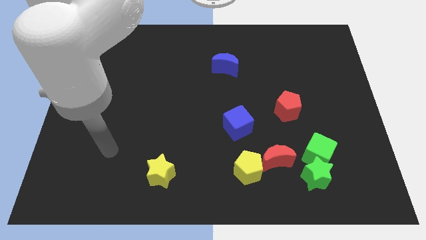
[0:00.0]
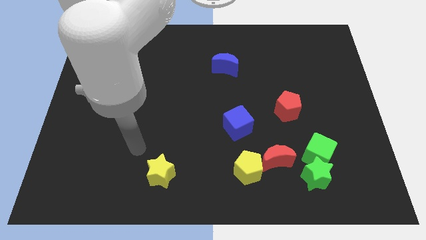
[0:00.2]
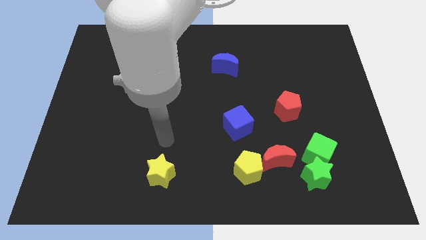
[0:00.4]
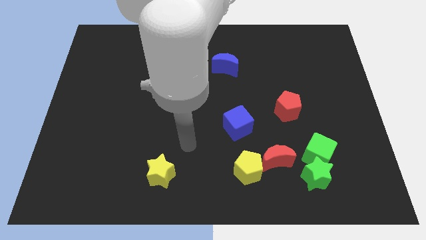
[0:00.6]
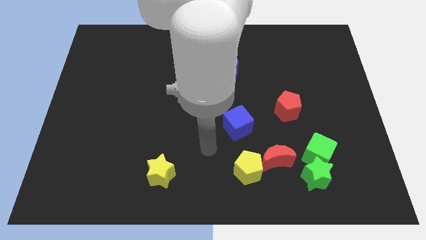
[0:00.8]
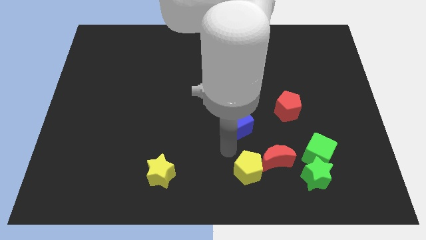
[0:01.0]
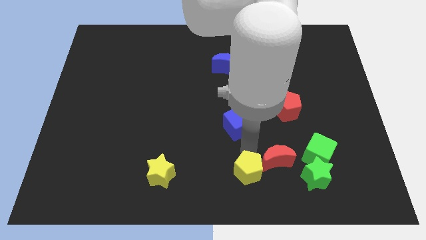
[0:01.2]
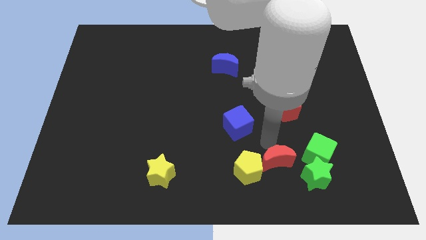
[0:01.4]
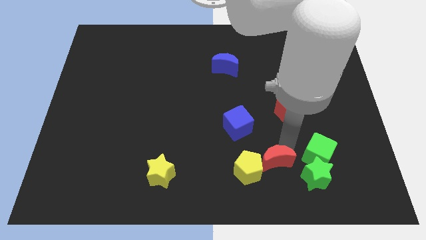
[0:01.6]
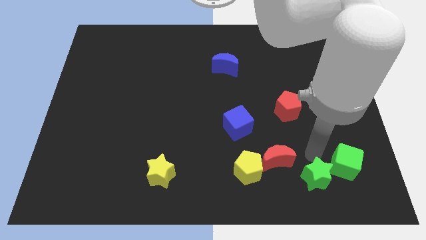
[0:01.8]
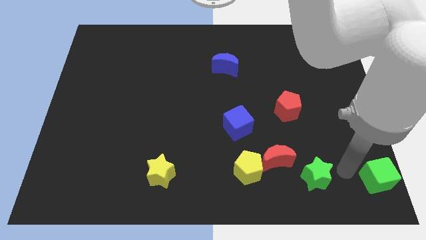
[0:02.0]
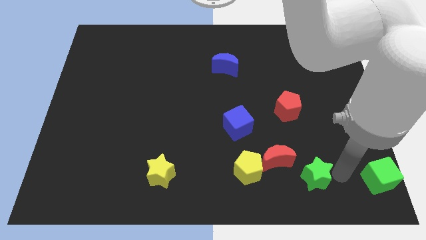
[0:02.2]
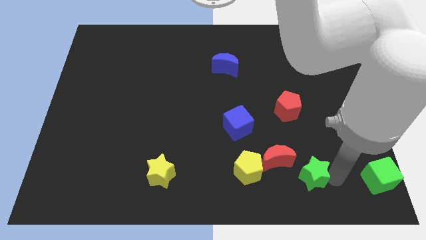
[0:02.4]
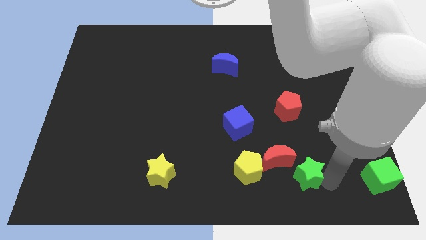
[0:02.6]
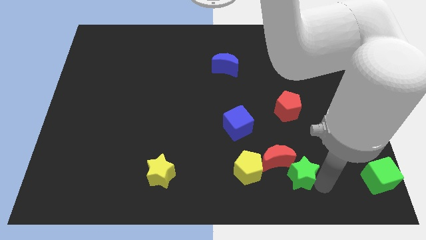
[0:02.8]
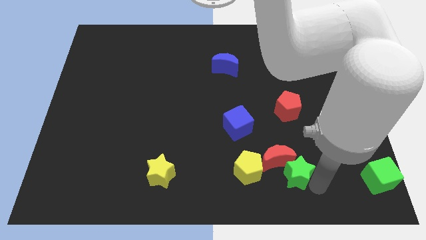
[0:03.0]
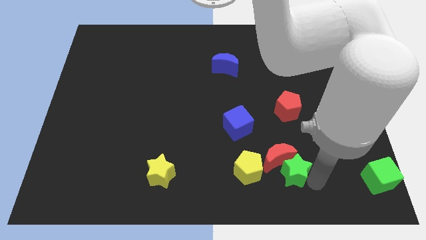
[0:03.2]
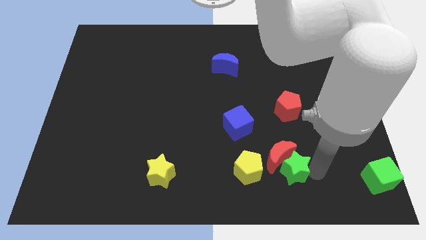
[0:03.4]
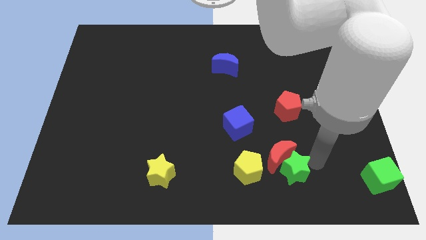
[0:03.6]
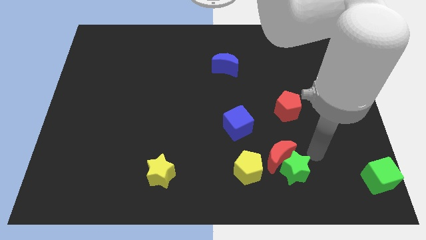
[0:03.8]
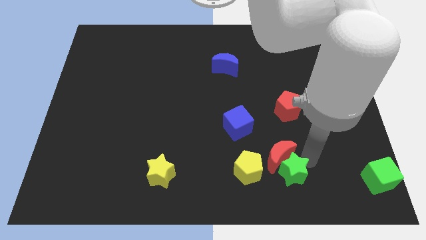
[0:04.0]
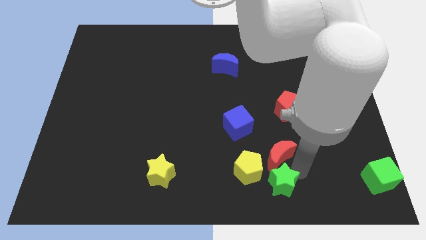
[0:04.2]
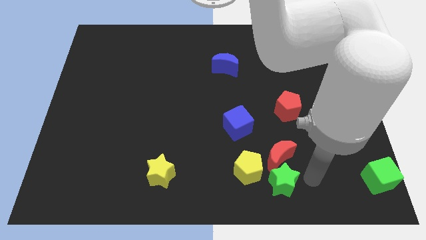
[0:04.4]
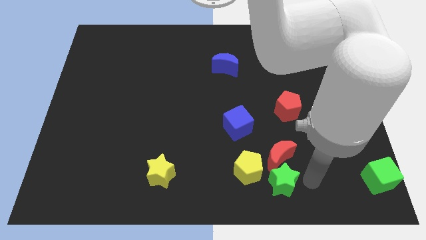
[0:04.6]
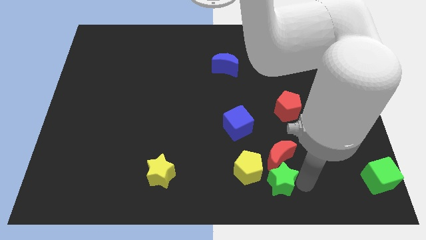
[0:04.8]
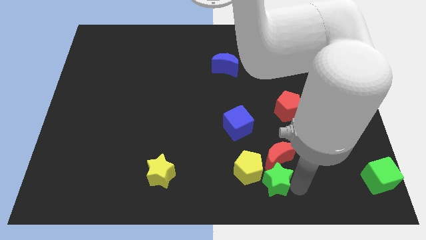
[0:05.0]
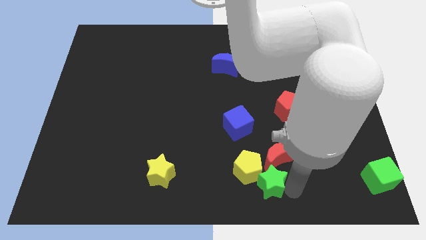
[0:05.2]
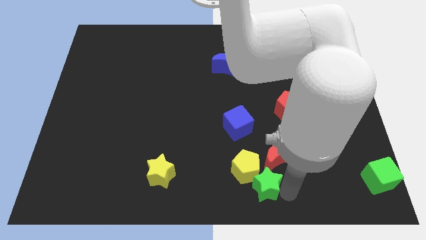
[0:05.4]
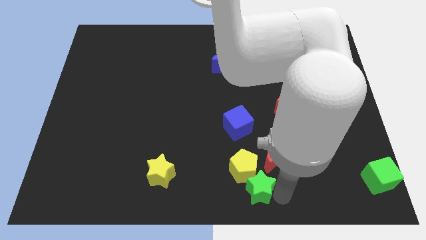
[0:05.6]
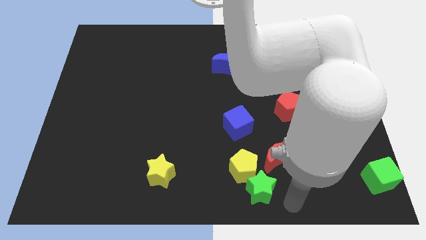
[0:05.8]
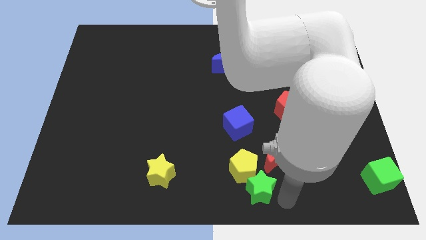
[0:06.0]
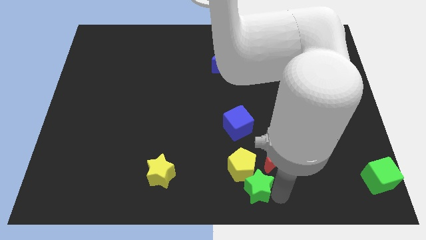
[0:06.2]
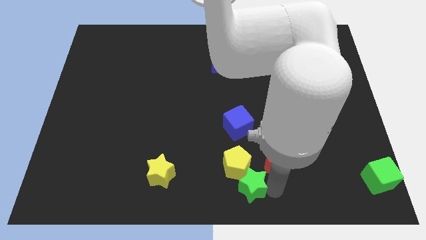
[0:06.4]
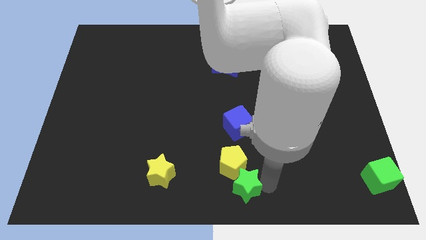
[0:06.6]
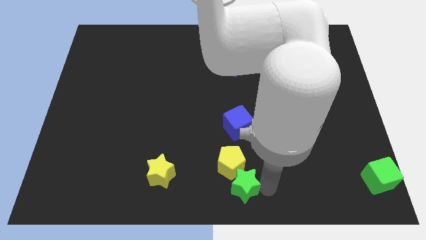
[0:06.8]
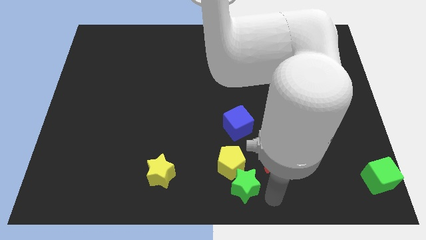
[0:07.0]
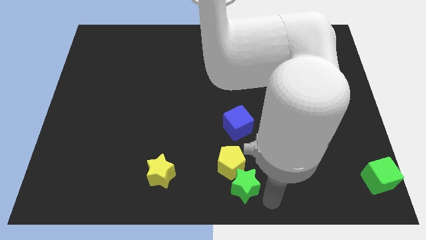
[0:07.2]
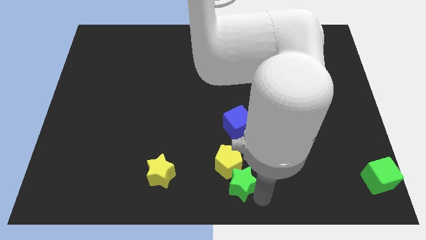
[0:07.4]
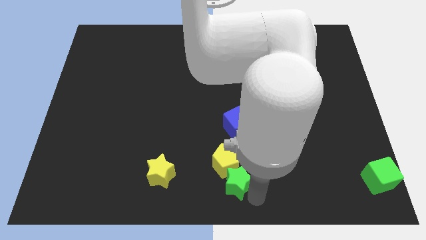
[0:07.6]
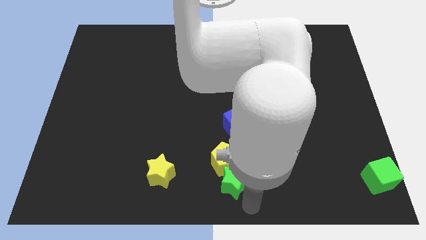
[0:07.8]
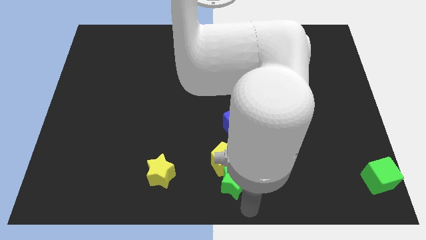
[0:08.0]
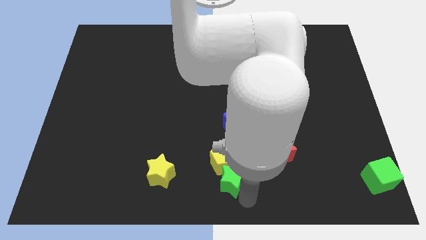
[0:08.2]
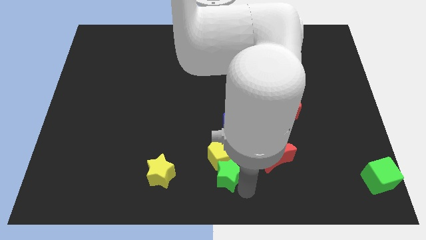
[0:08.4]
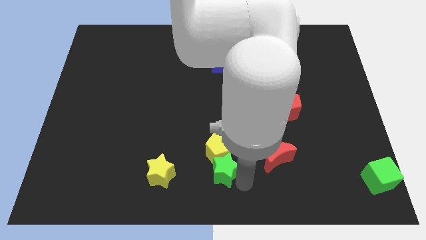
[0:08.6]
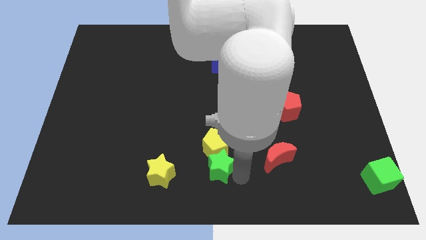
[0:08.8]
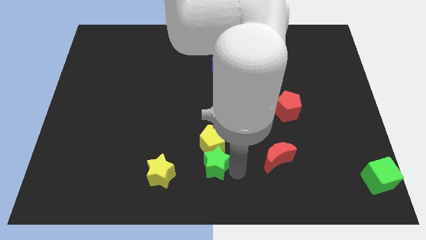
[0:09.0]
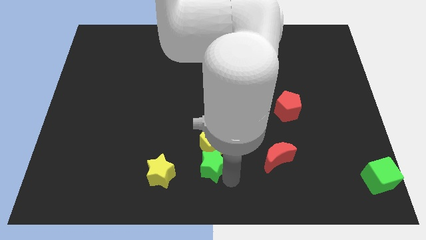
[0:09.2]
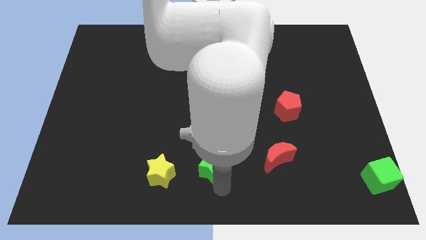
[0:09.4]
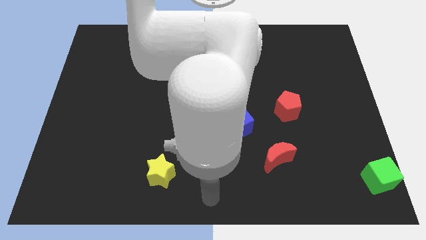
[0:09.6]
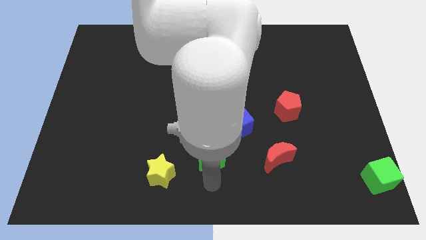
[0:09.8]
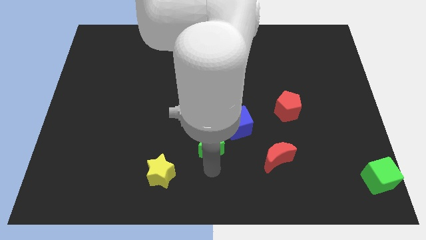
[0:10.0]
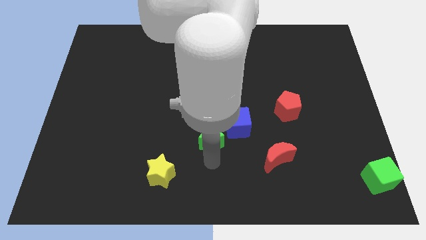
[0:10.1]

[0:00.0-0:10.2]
slide the green star to the middle of the board

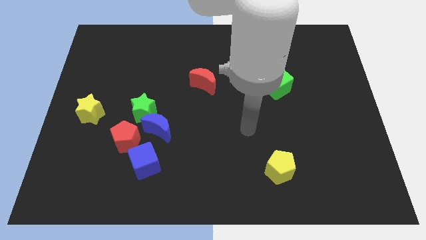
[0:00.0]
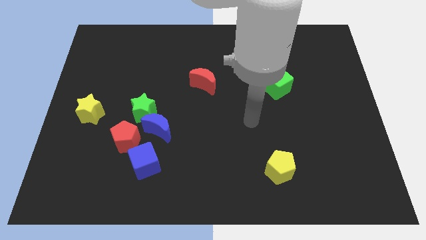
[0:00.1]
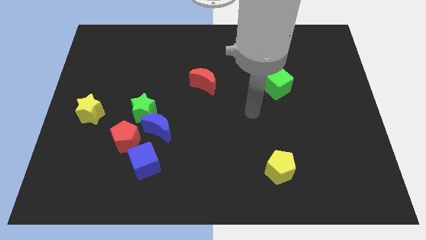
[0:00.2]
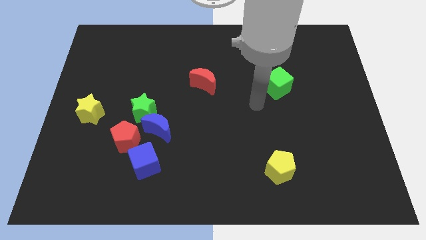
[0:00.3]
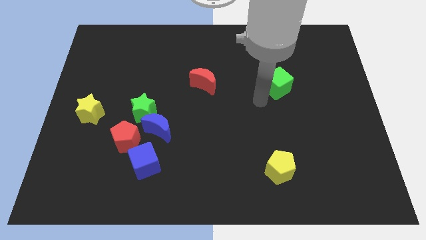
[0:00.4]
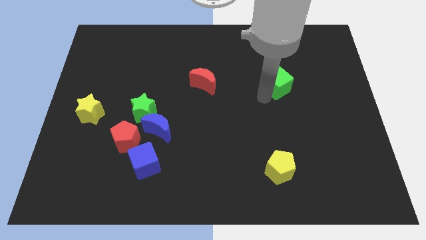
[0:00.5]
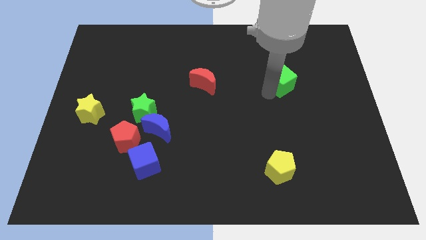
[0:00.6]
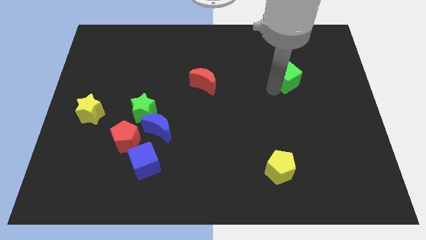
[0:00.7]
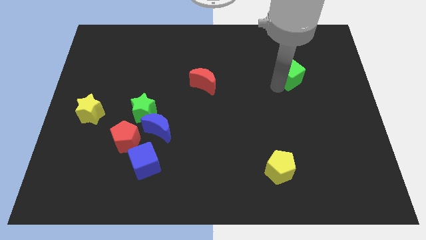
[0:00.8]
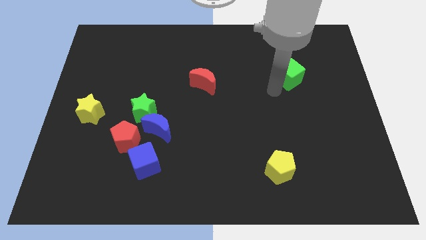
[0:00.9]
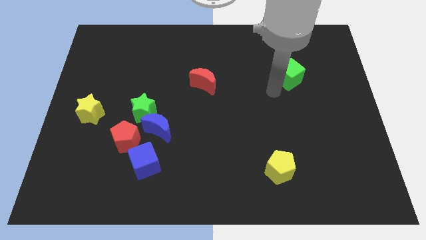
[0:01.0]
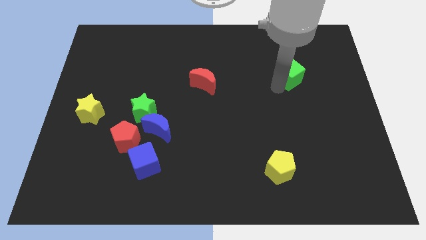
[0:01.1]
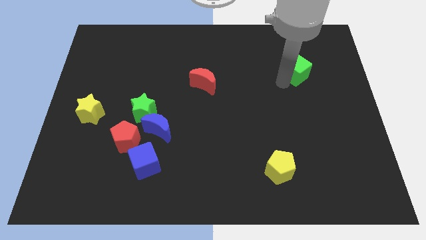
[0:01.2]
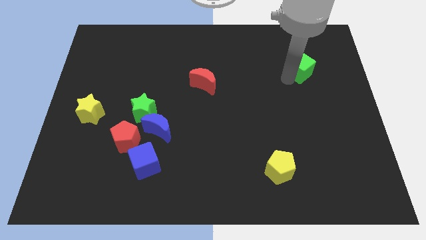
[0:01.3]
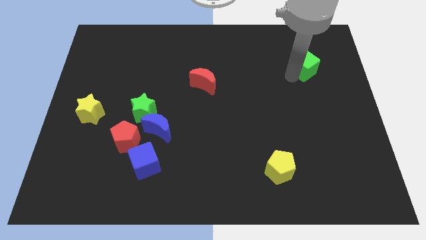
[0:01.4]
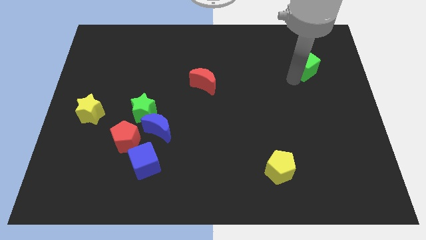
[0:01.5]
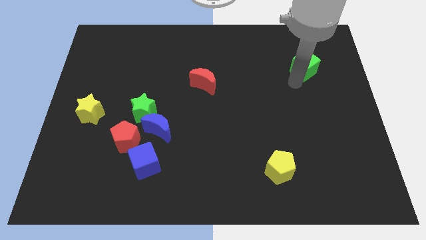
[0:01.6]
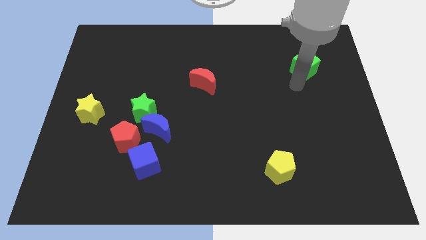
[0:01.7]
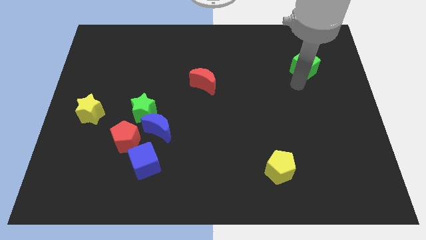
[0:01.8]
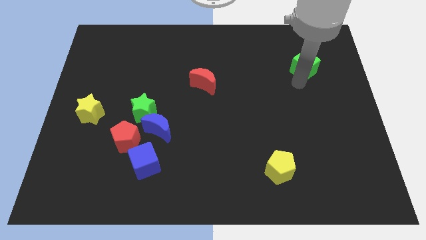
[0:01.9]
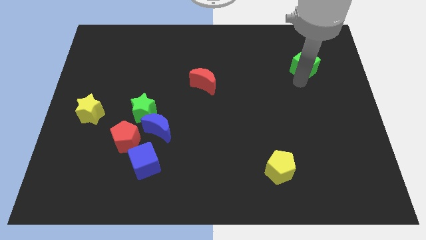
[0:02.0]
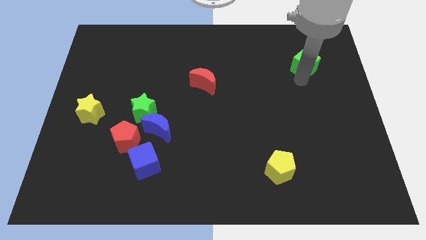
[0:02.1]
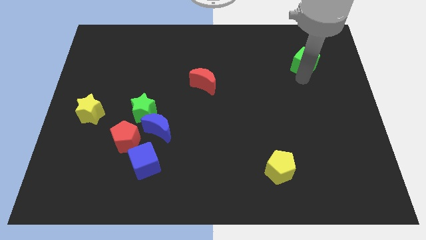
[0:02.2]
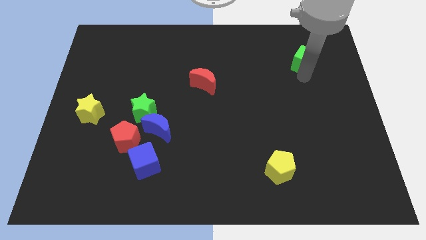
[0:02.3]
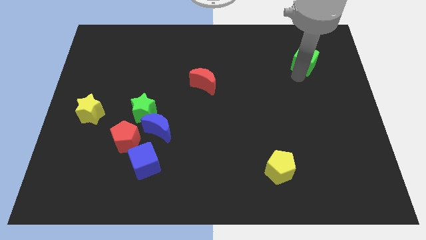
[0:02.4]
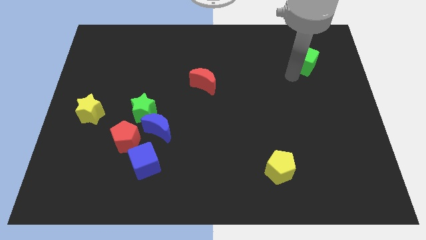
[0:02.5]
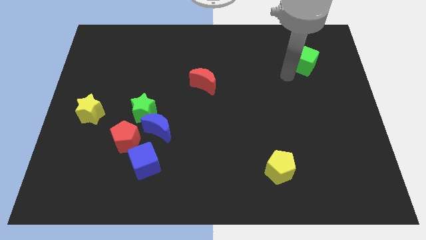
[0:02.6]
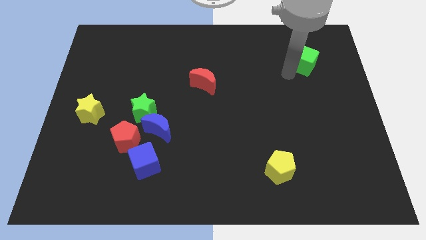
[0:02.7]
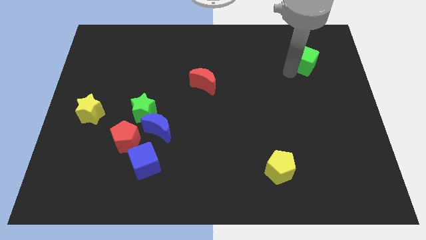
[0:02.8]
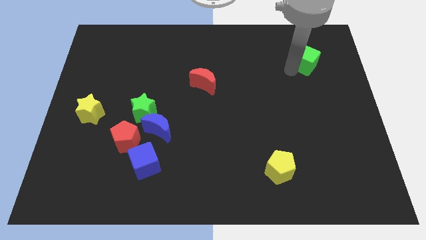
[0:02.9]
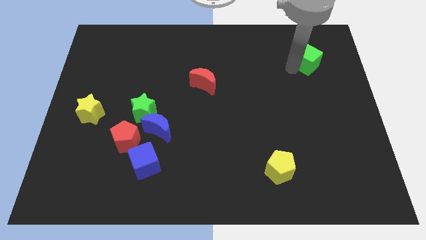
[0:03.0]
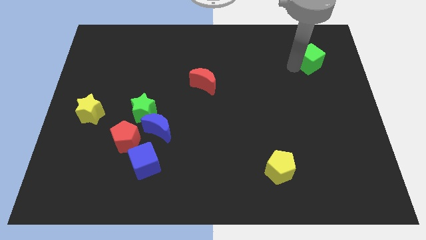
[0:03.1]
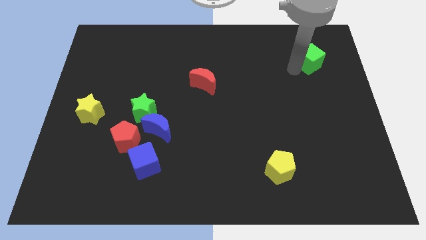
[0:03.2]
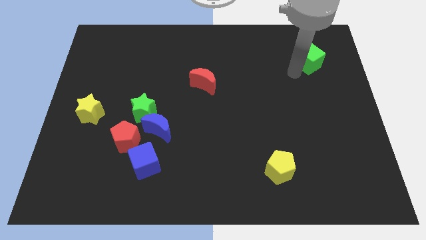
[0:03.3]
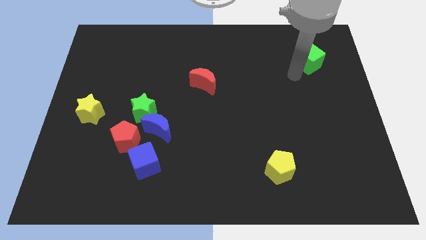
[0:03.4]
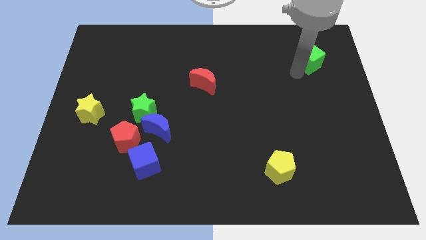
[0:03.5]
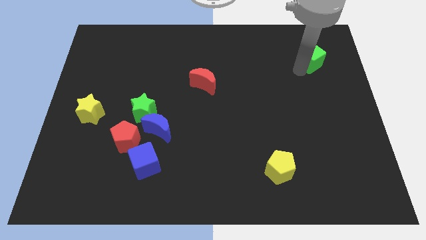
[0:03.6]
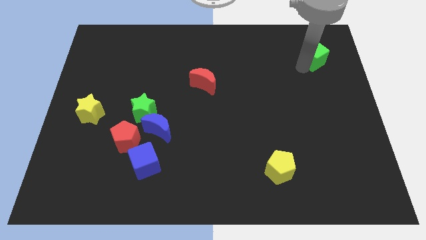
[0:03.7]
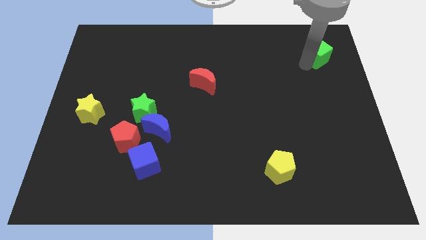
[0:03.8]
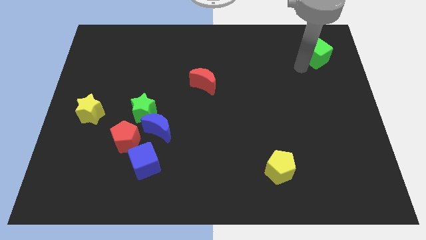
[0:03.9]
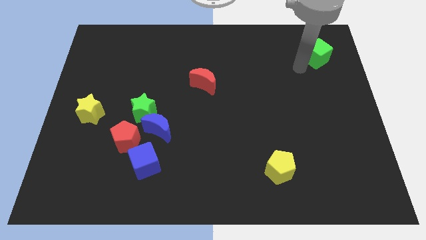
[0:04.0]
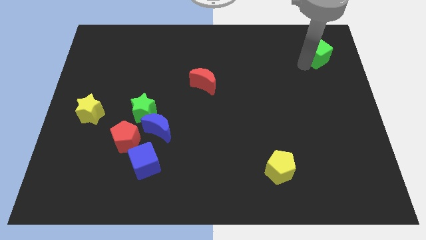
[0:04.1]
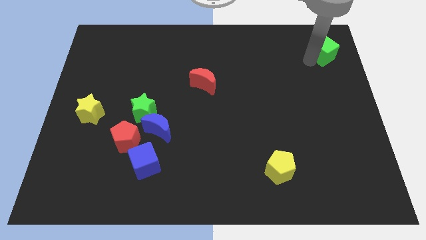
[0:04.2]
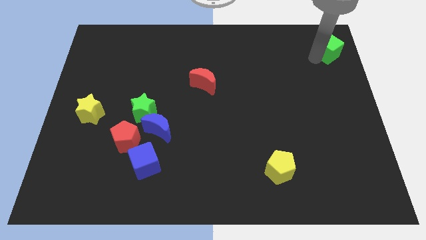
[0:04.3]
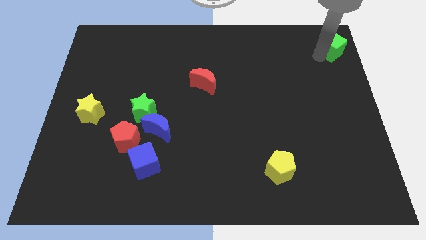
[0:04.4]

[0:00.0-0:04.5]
push the green cube to the top right
